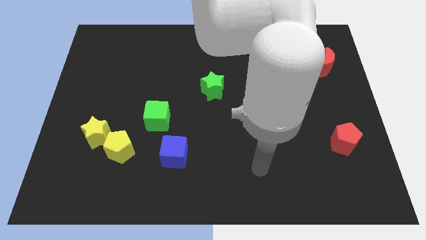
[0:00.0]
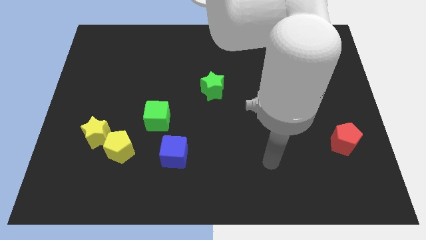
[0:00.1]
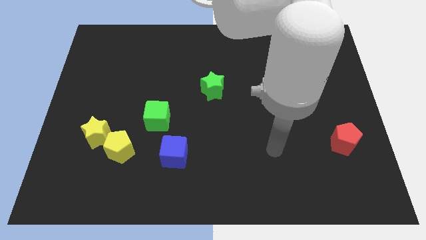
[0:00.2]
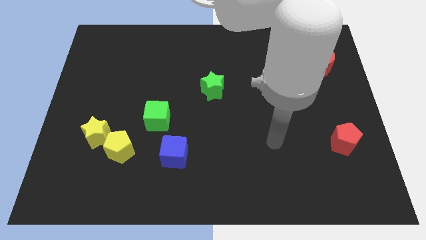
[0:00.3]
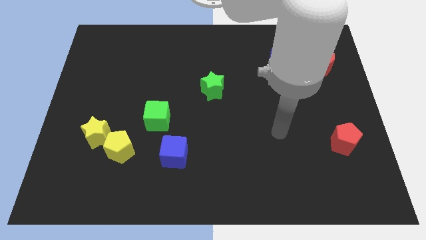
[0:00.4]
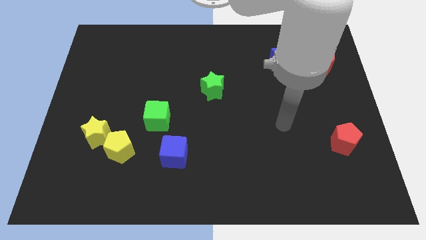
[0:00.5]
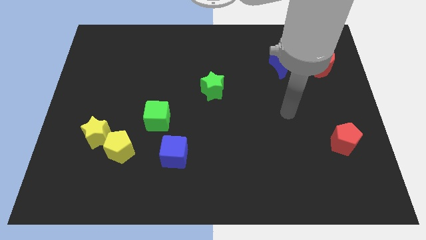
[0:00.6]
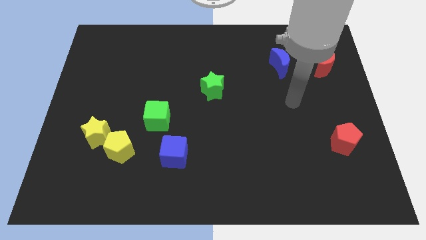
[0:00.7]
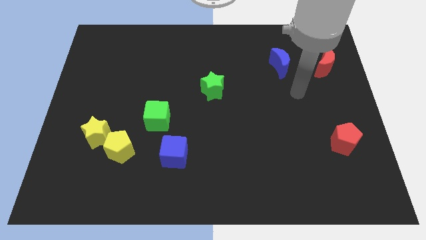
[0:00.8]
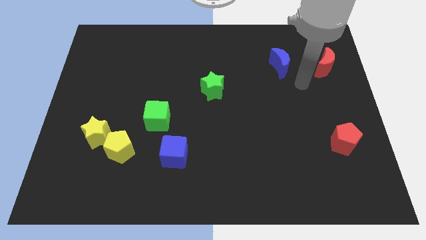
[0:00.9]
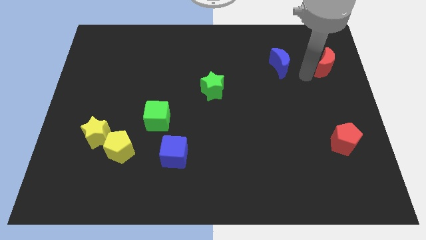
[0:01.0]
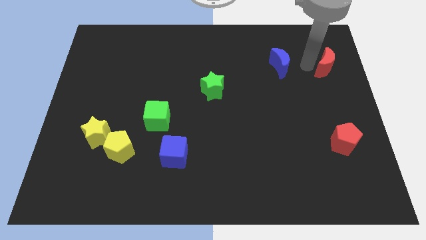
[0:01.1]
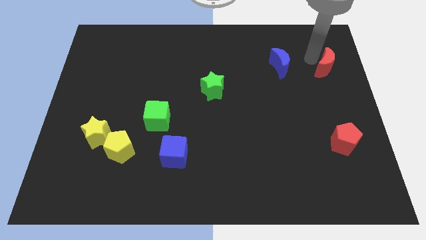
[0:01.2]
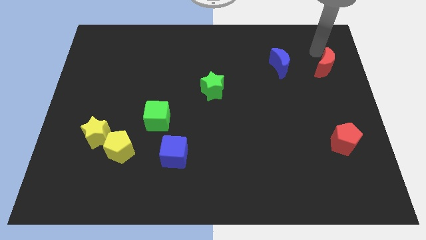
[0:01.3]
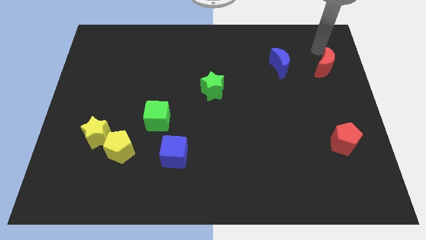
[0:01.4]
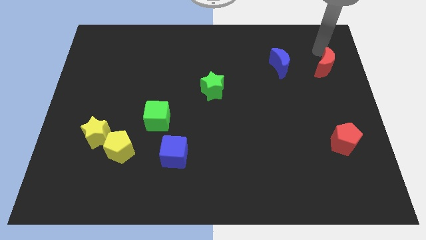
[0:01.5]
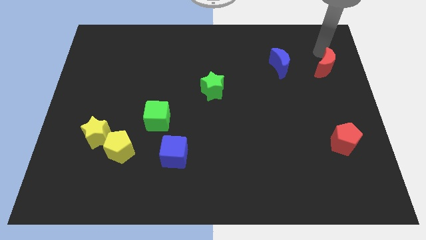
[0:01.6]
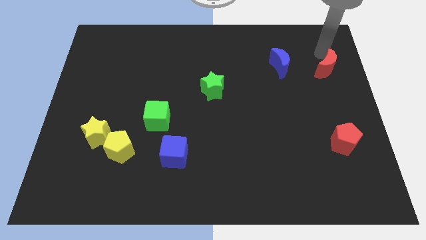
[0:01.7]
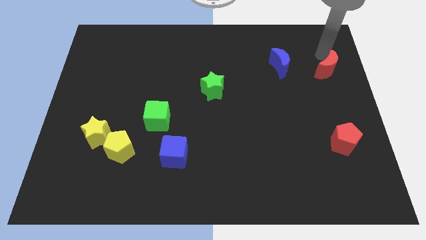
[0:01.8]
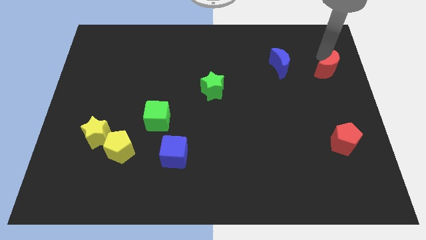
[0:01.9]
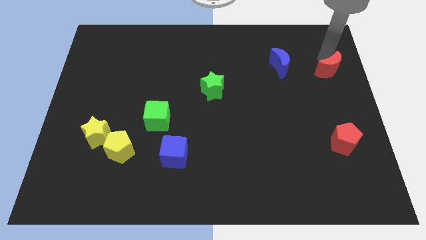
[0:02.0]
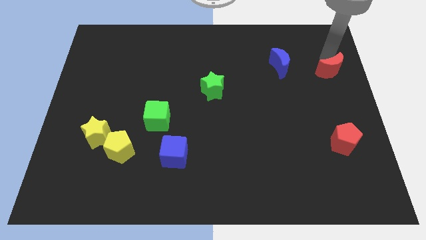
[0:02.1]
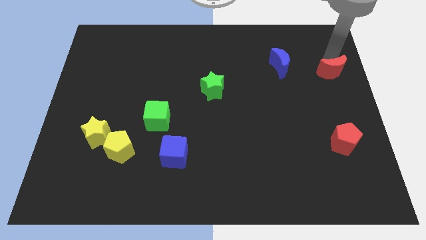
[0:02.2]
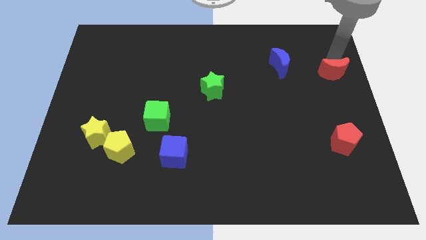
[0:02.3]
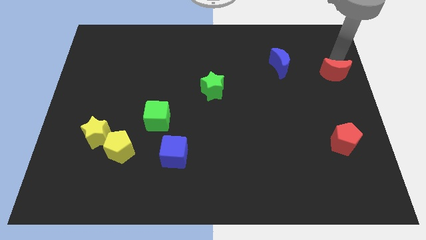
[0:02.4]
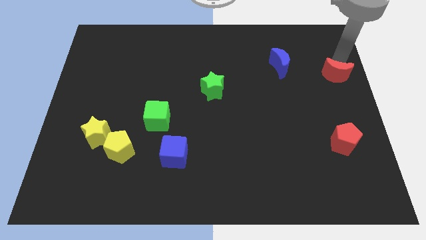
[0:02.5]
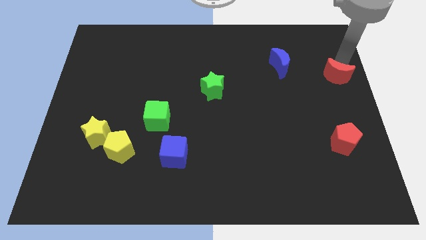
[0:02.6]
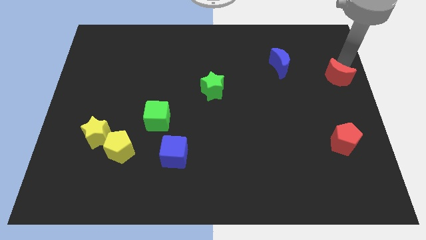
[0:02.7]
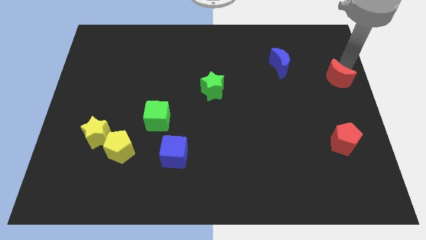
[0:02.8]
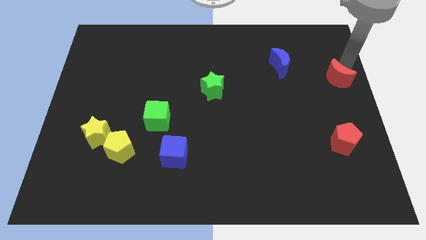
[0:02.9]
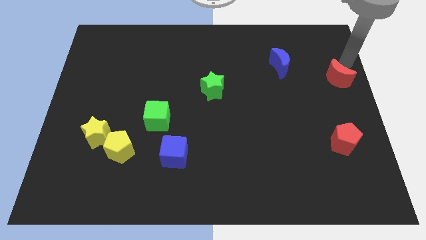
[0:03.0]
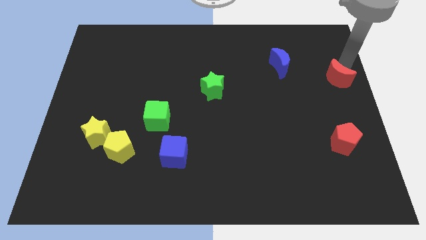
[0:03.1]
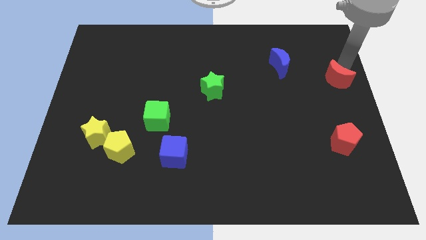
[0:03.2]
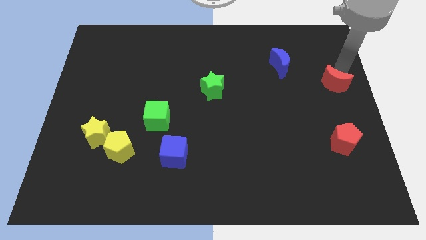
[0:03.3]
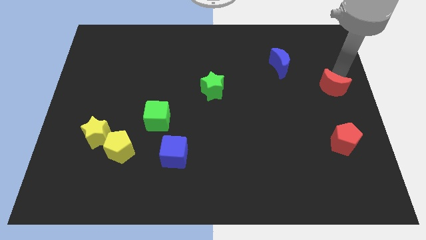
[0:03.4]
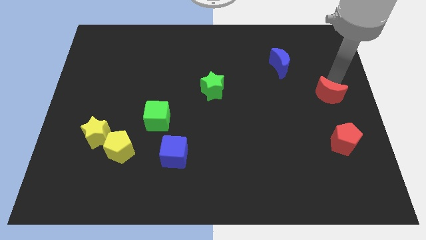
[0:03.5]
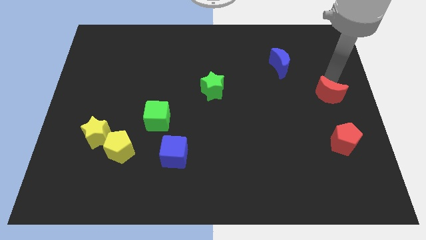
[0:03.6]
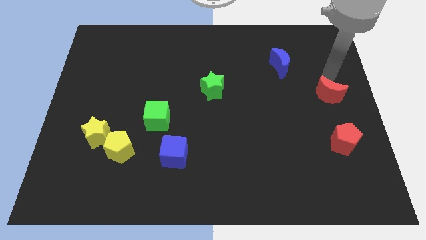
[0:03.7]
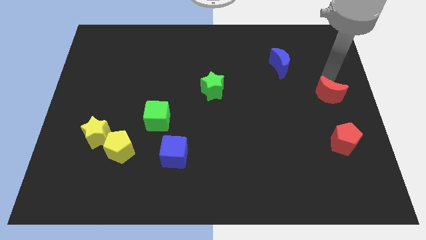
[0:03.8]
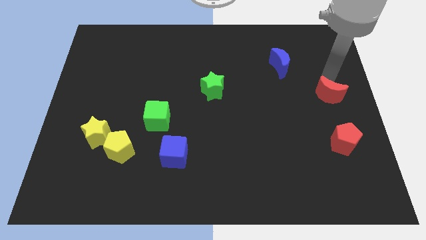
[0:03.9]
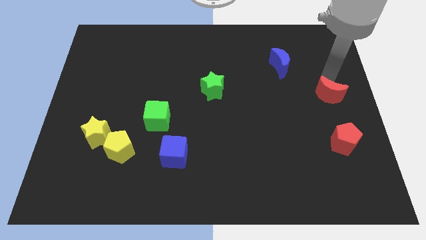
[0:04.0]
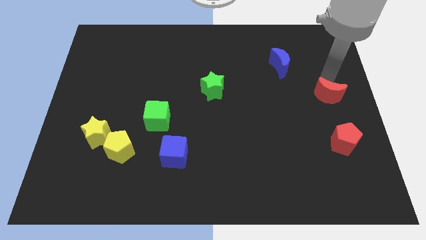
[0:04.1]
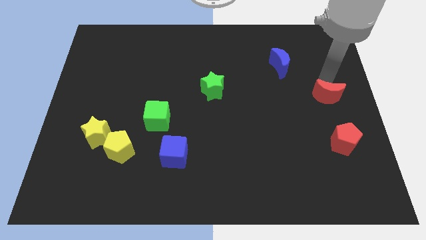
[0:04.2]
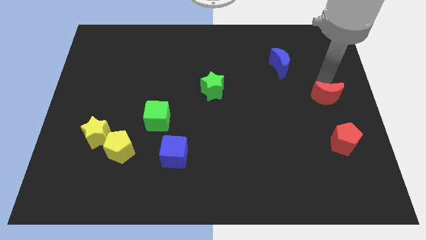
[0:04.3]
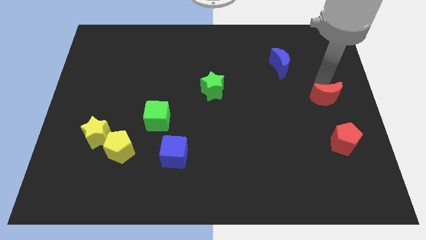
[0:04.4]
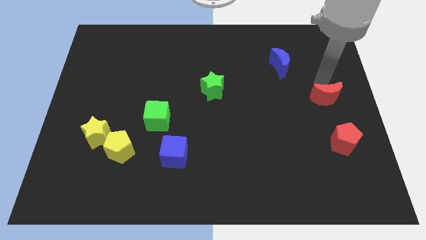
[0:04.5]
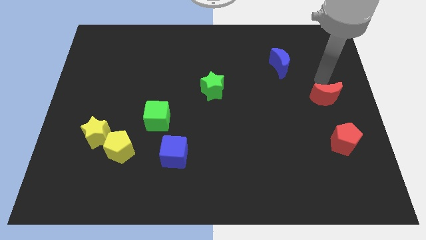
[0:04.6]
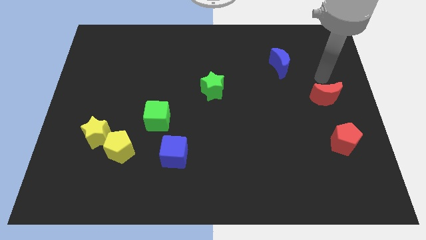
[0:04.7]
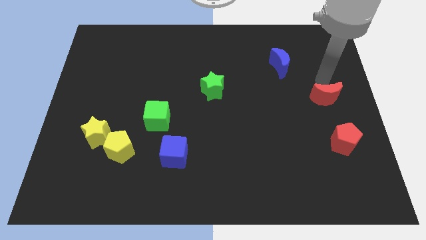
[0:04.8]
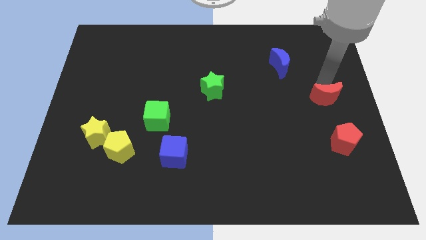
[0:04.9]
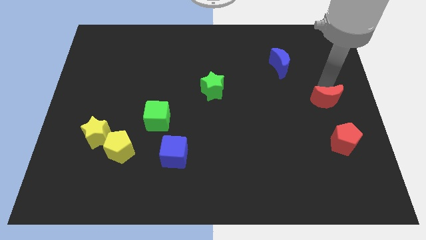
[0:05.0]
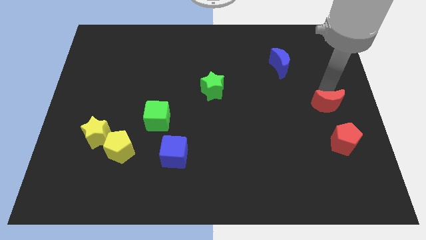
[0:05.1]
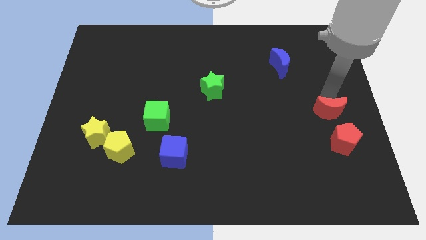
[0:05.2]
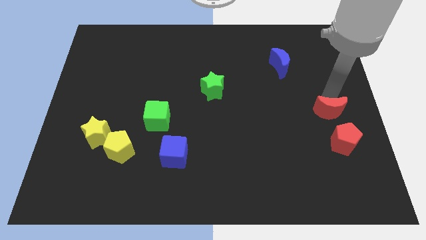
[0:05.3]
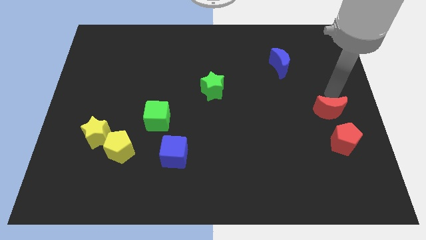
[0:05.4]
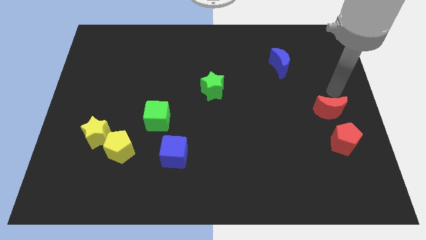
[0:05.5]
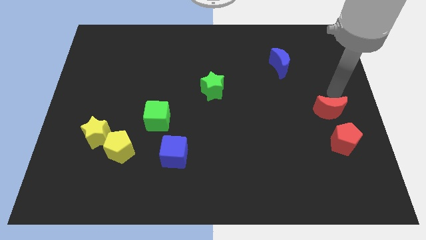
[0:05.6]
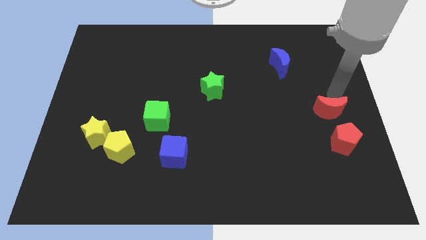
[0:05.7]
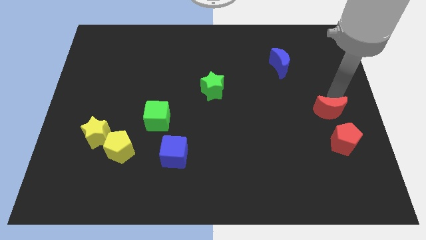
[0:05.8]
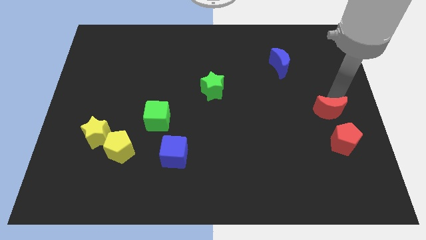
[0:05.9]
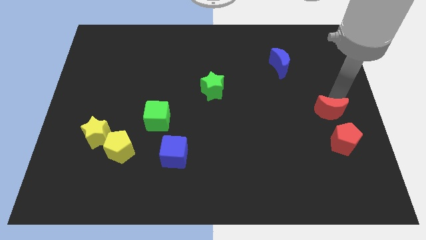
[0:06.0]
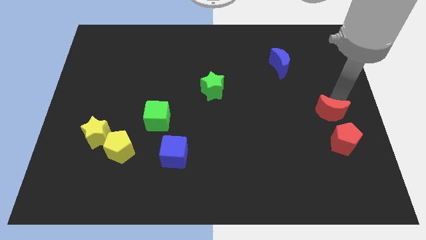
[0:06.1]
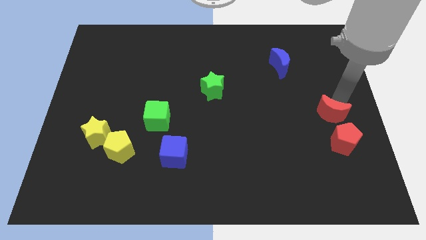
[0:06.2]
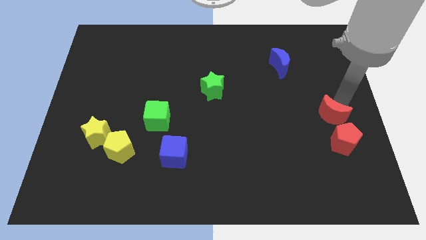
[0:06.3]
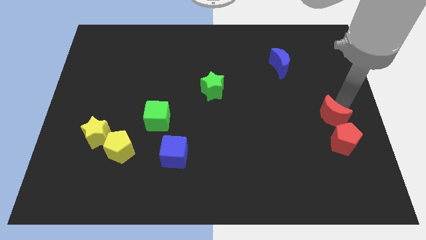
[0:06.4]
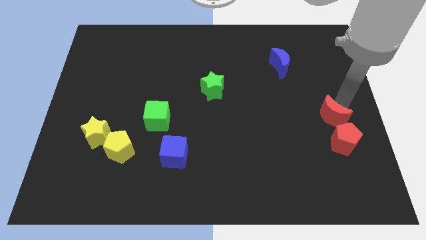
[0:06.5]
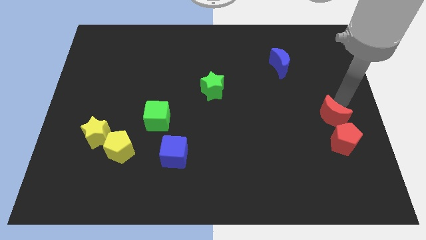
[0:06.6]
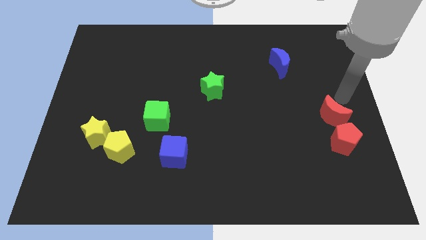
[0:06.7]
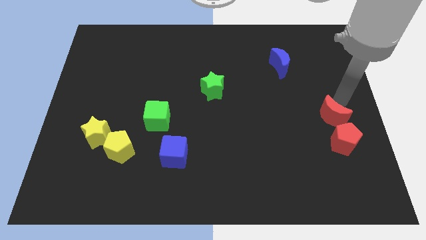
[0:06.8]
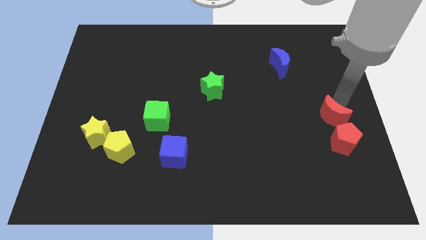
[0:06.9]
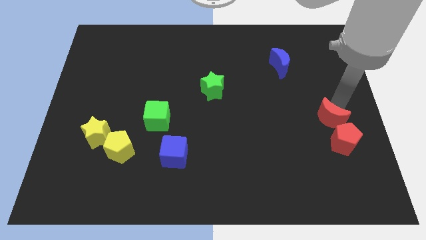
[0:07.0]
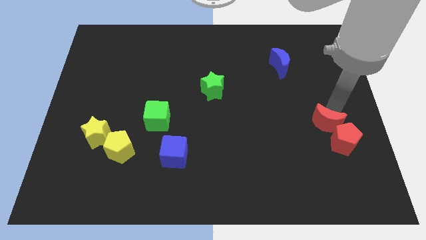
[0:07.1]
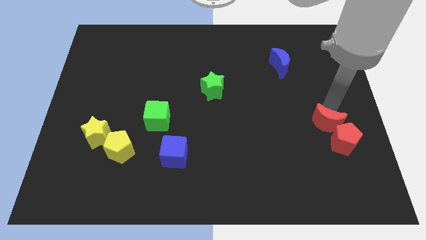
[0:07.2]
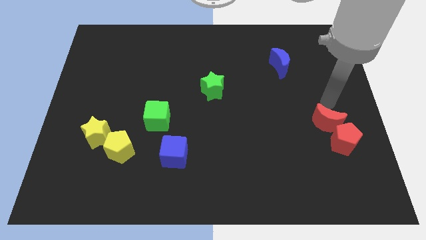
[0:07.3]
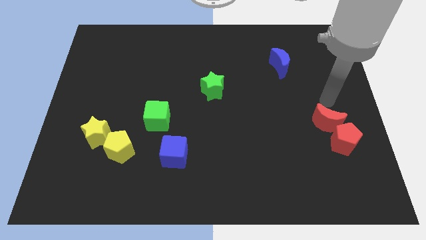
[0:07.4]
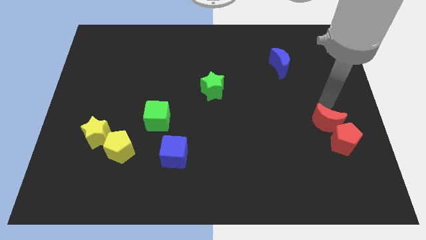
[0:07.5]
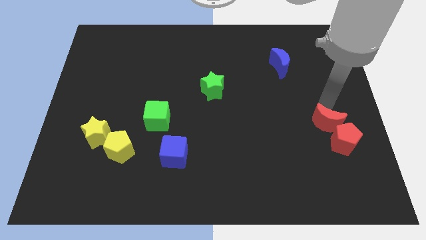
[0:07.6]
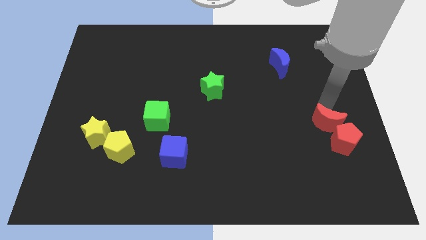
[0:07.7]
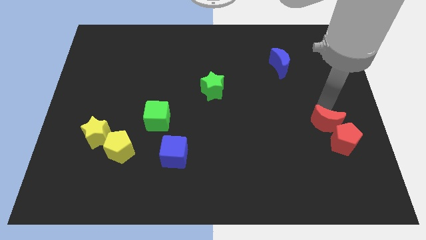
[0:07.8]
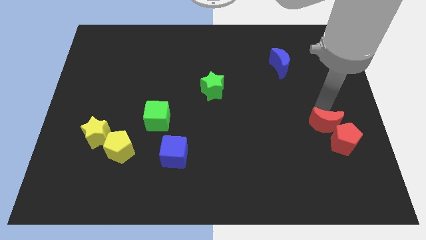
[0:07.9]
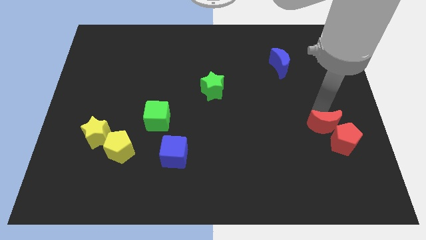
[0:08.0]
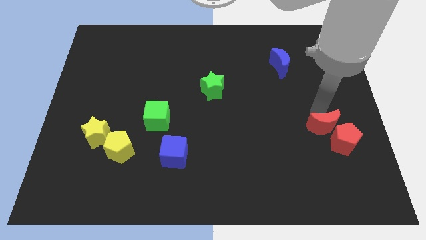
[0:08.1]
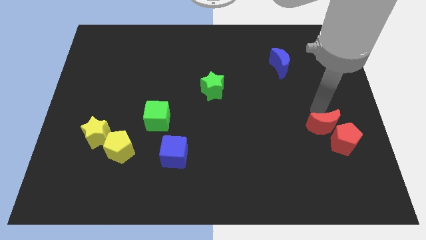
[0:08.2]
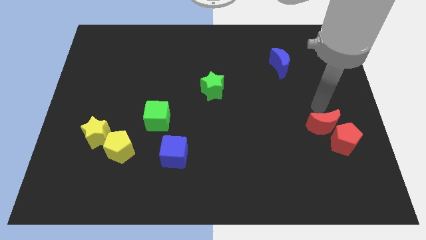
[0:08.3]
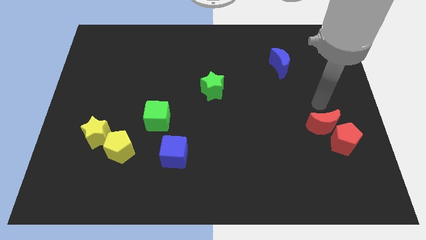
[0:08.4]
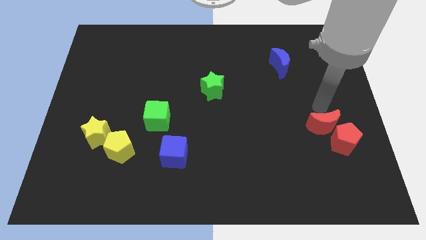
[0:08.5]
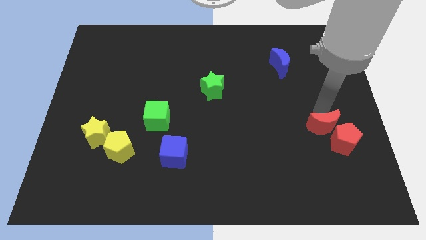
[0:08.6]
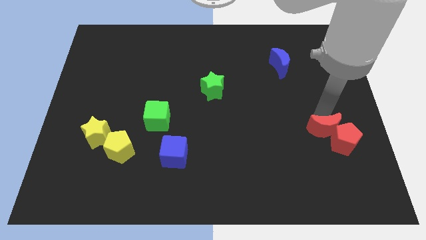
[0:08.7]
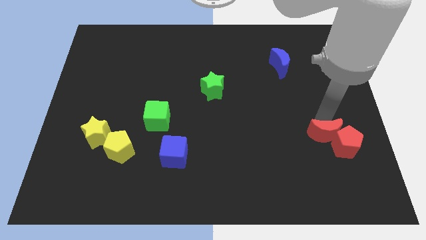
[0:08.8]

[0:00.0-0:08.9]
push the red moon down
